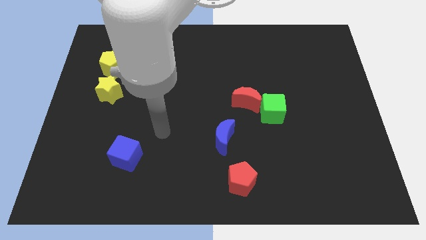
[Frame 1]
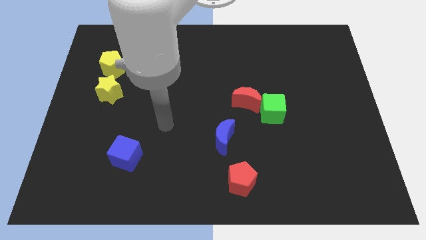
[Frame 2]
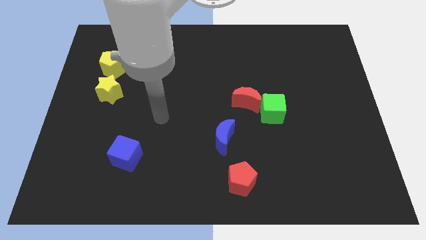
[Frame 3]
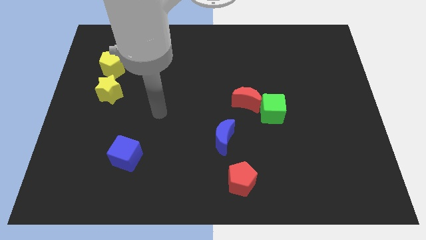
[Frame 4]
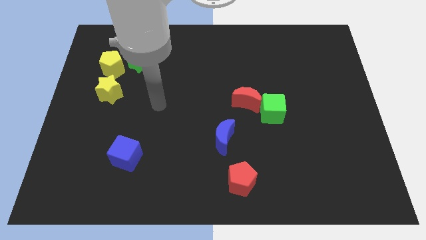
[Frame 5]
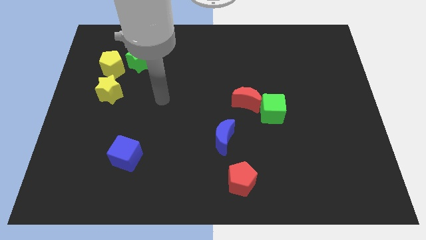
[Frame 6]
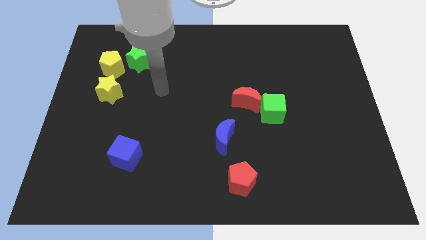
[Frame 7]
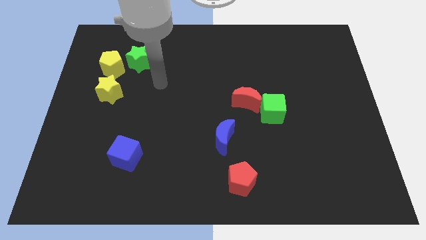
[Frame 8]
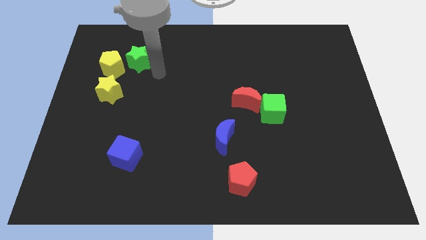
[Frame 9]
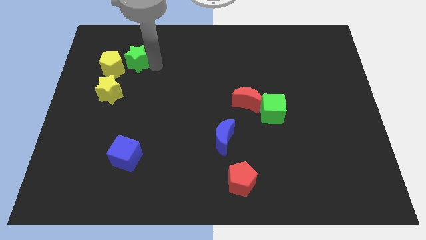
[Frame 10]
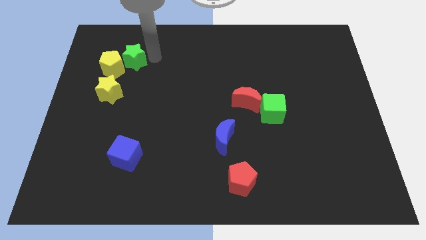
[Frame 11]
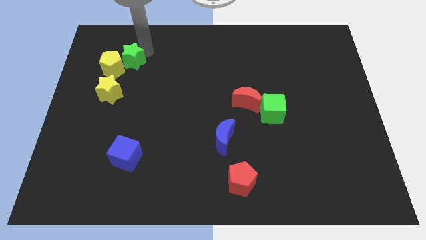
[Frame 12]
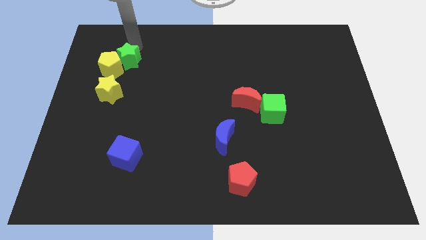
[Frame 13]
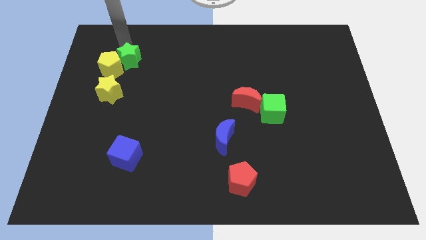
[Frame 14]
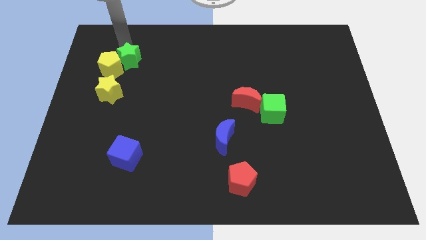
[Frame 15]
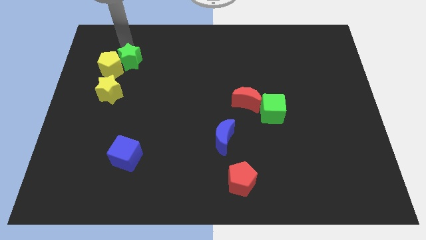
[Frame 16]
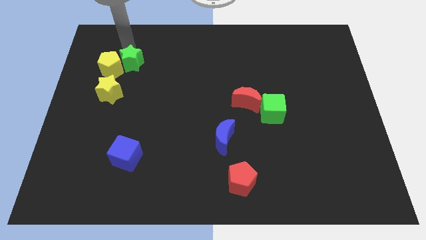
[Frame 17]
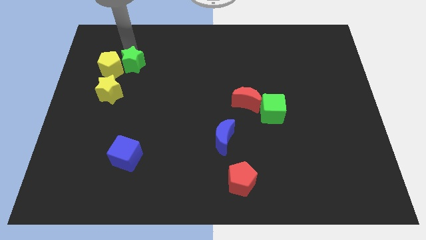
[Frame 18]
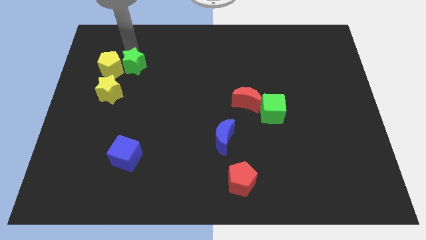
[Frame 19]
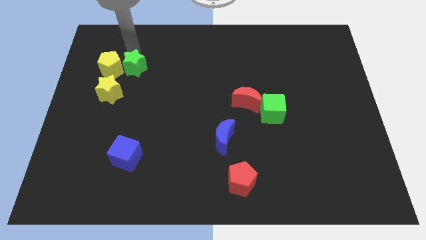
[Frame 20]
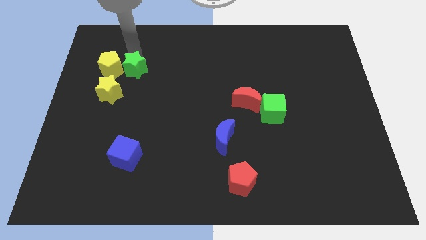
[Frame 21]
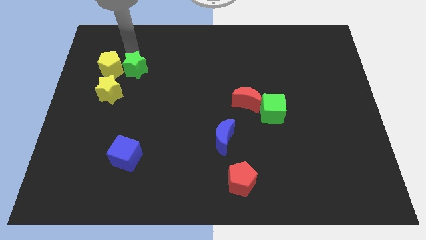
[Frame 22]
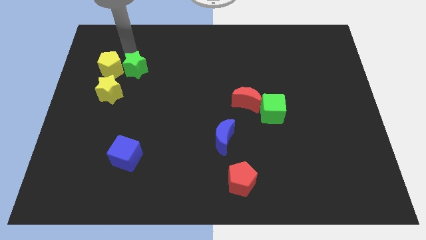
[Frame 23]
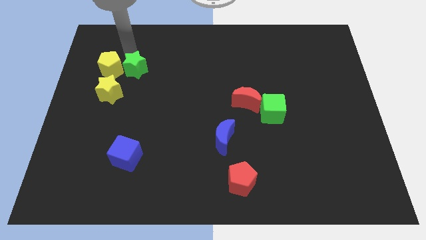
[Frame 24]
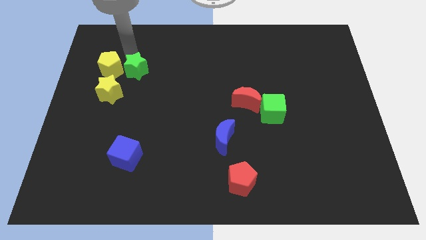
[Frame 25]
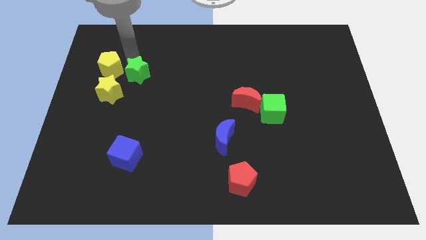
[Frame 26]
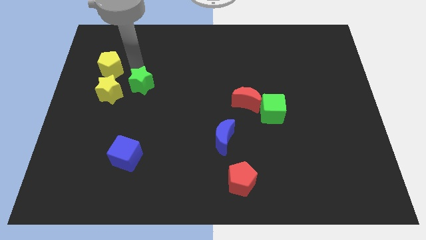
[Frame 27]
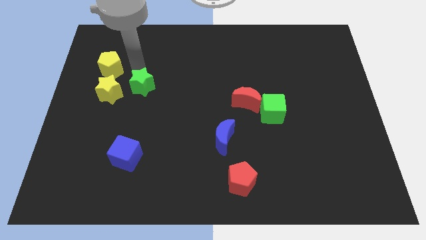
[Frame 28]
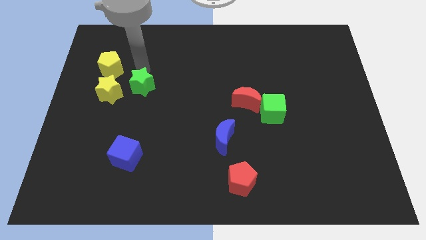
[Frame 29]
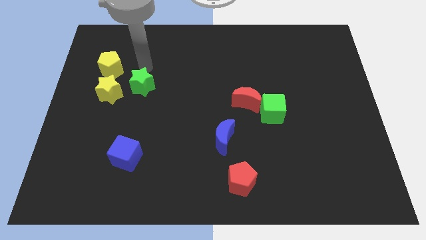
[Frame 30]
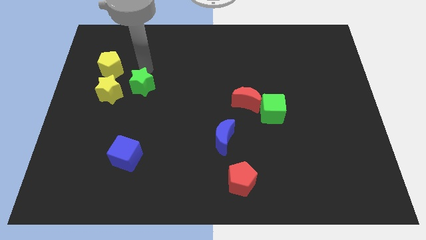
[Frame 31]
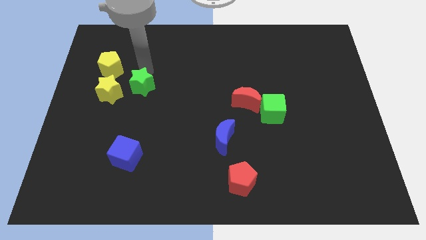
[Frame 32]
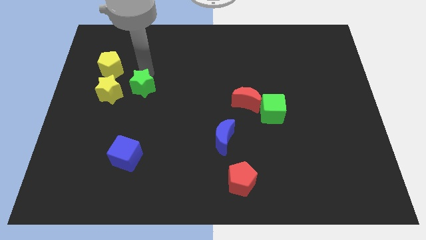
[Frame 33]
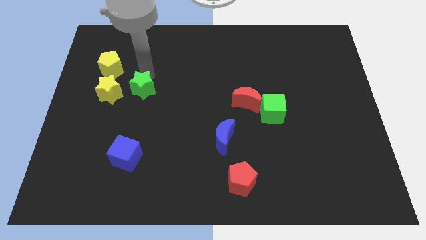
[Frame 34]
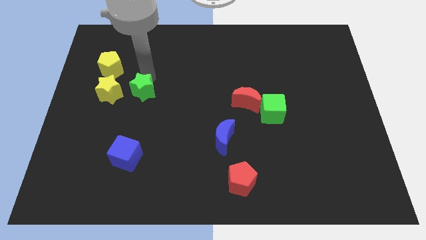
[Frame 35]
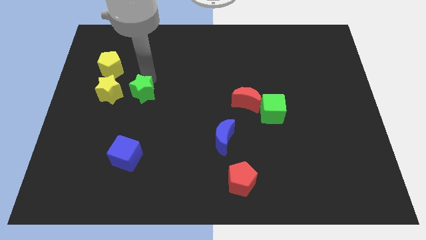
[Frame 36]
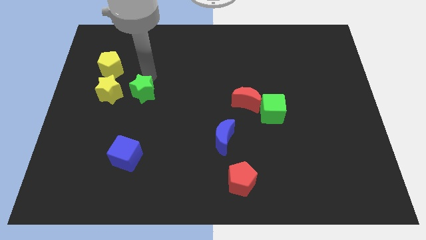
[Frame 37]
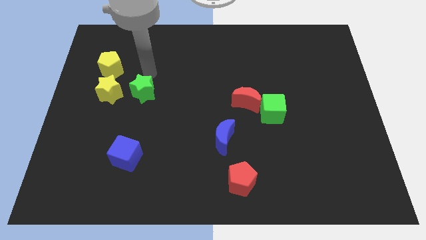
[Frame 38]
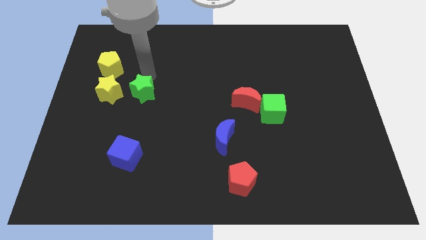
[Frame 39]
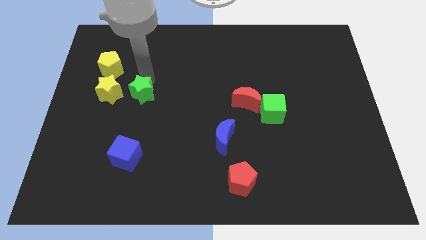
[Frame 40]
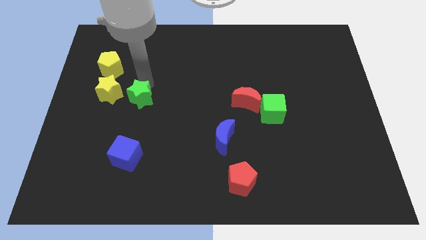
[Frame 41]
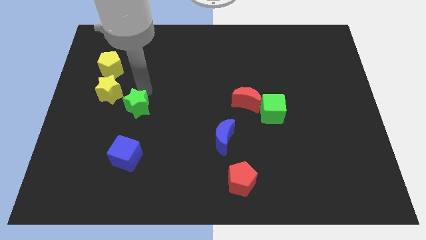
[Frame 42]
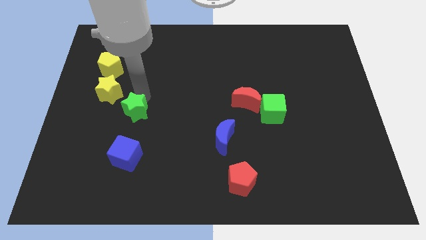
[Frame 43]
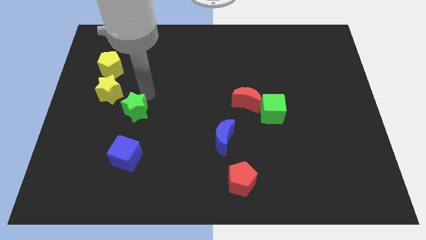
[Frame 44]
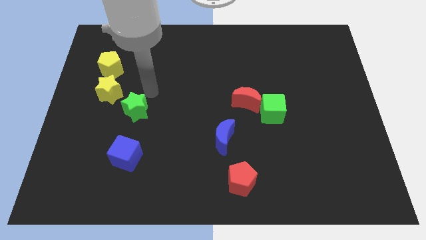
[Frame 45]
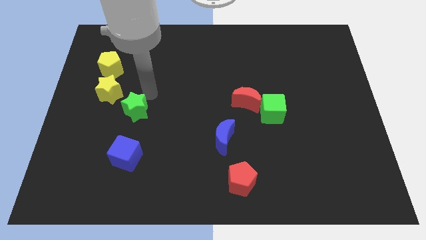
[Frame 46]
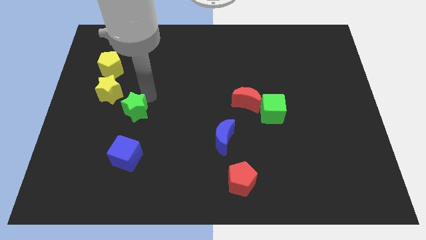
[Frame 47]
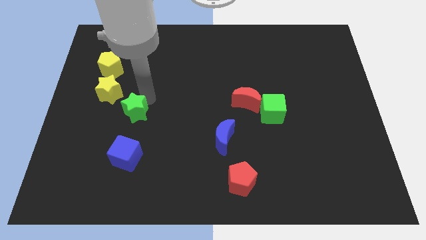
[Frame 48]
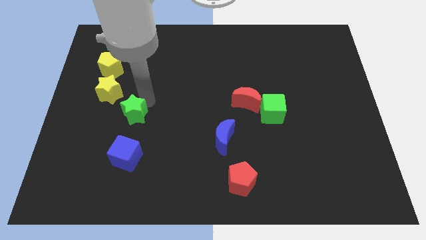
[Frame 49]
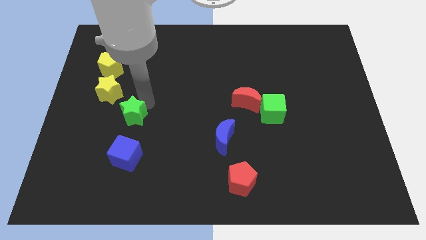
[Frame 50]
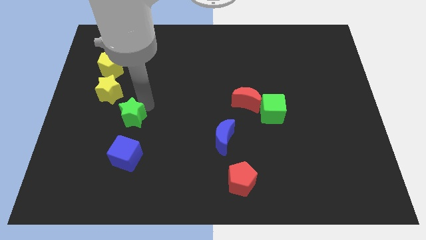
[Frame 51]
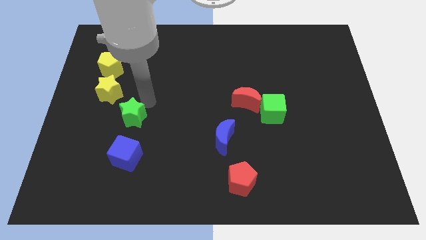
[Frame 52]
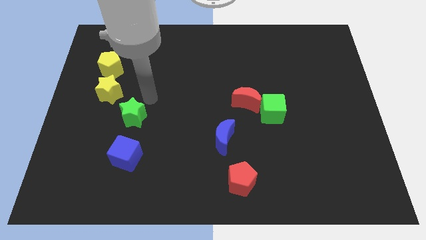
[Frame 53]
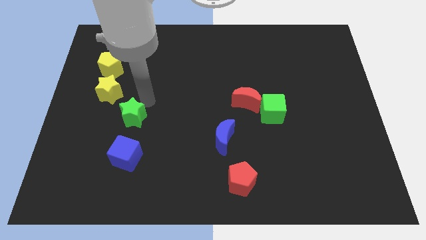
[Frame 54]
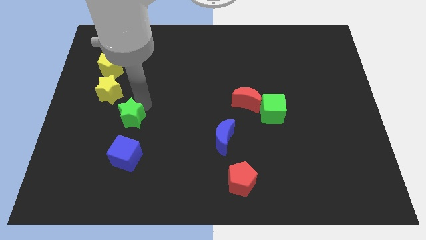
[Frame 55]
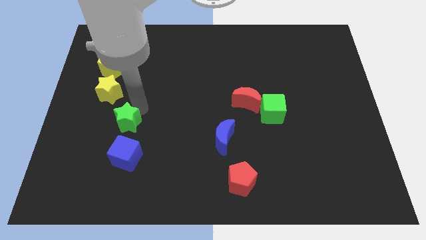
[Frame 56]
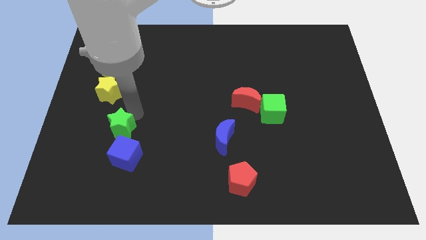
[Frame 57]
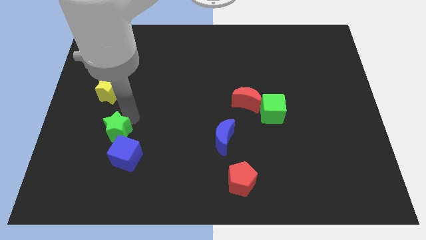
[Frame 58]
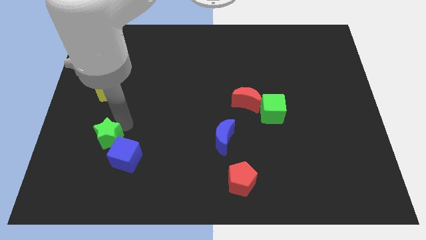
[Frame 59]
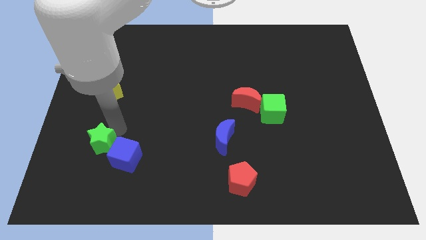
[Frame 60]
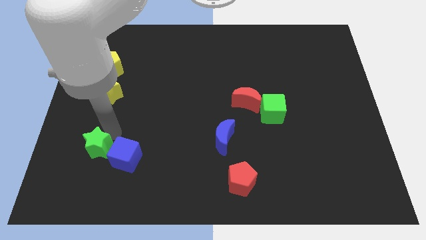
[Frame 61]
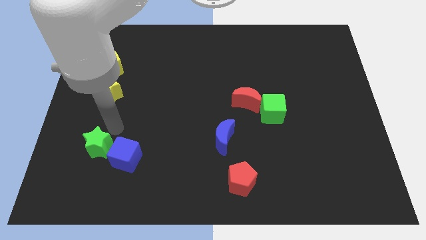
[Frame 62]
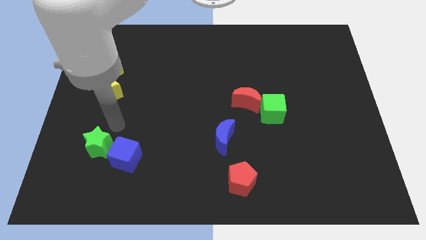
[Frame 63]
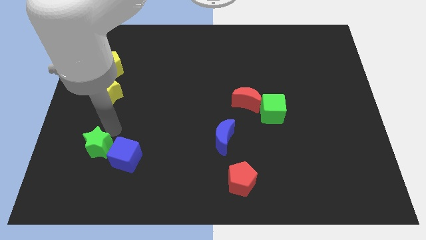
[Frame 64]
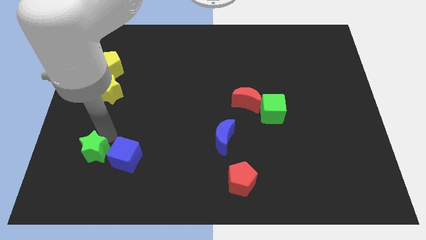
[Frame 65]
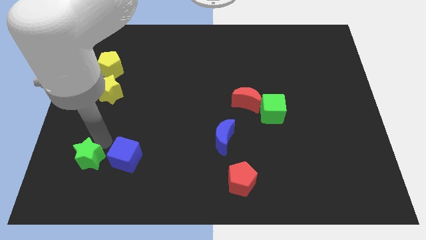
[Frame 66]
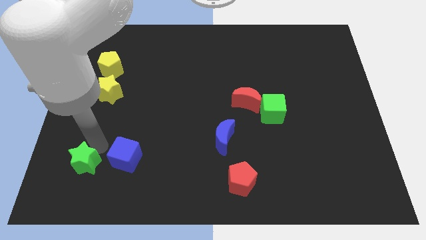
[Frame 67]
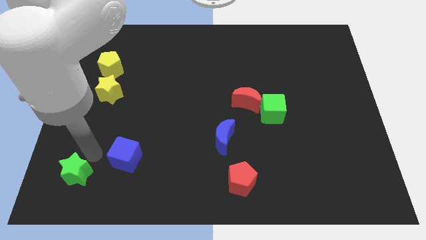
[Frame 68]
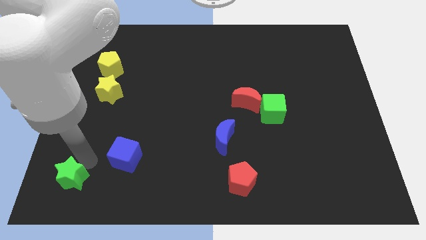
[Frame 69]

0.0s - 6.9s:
move the green star to the bottom left of the board
